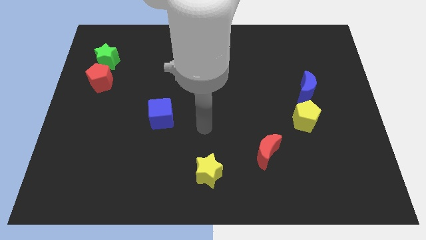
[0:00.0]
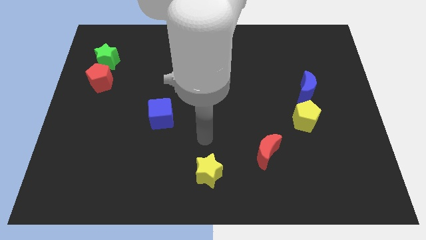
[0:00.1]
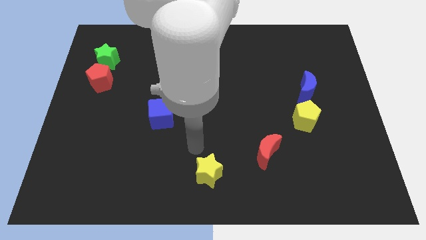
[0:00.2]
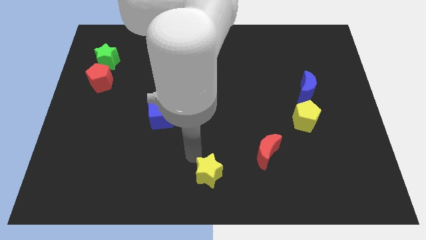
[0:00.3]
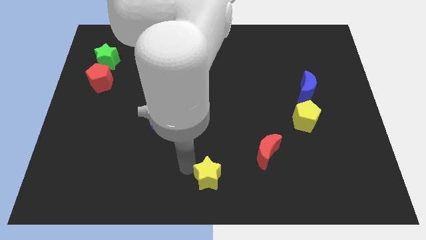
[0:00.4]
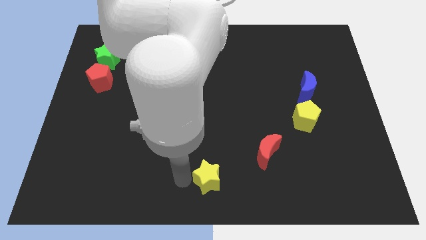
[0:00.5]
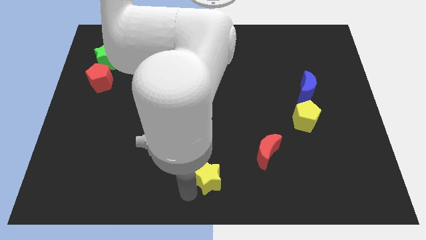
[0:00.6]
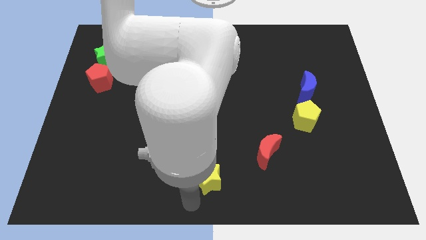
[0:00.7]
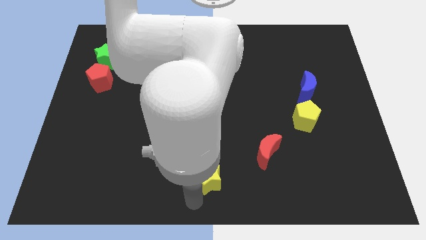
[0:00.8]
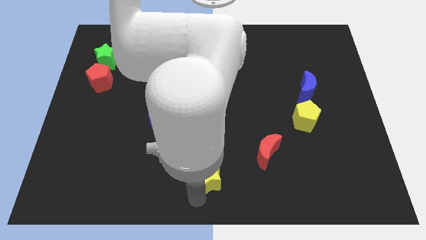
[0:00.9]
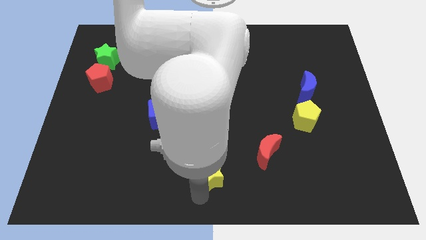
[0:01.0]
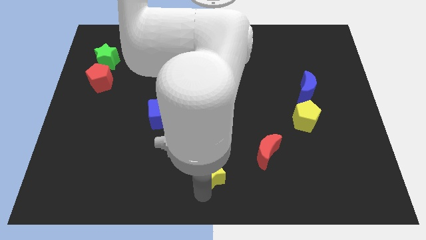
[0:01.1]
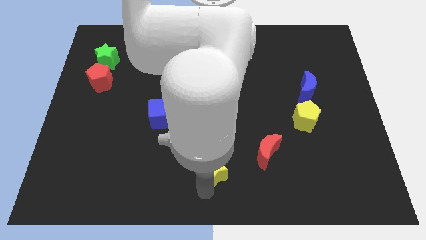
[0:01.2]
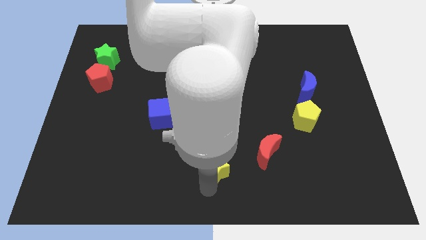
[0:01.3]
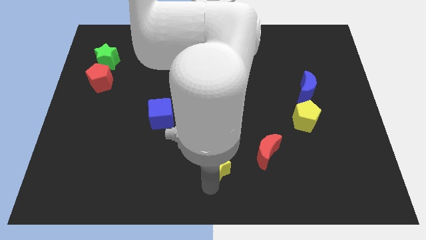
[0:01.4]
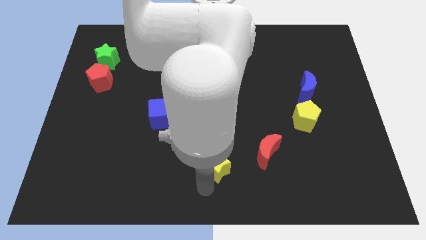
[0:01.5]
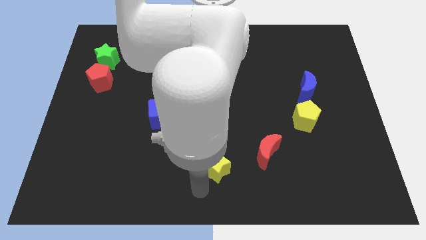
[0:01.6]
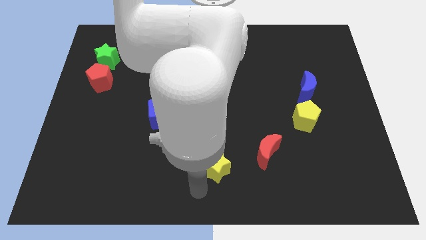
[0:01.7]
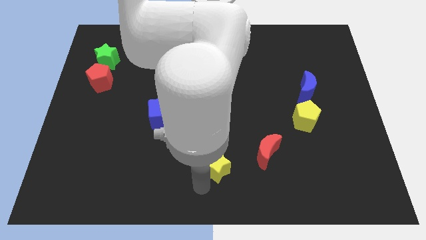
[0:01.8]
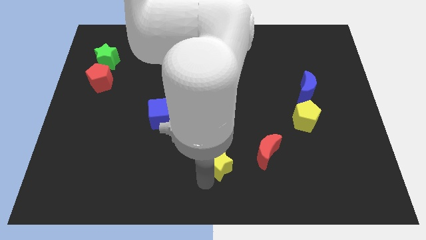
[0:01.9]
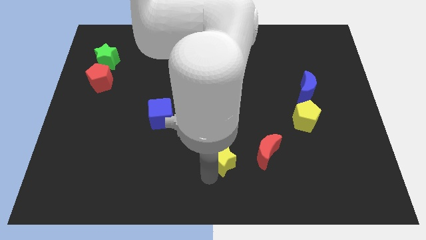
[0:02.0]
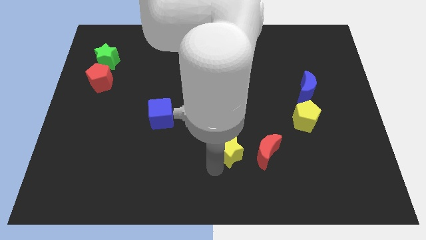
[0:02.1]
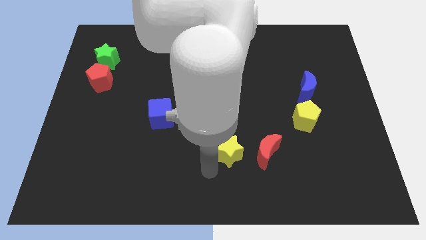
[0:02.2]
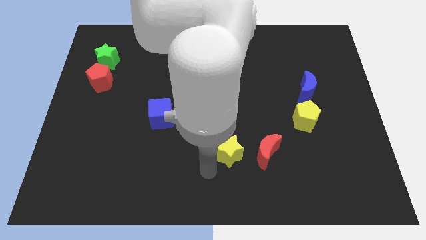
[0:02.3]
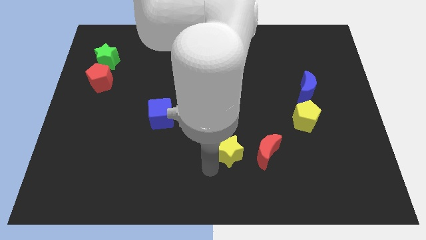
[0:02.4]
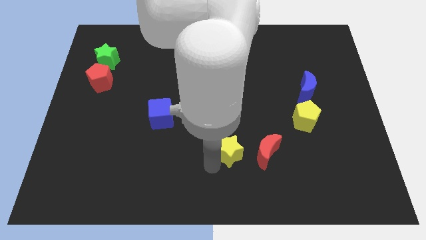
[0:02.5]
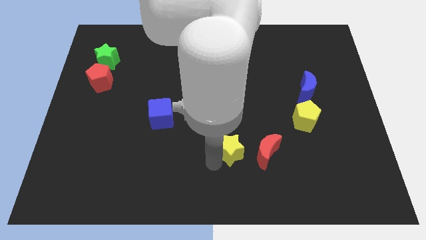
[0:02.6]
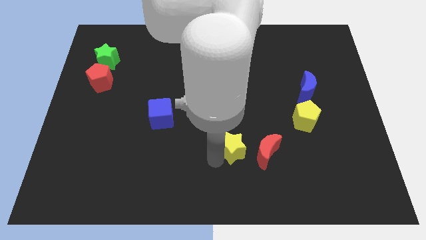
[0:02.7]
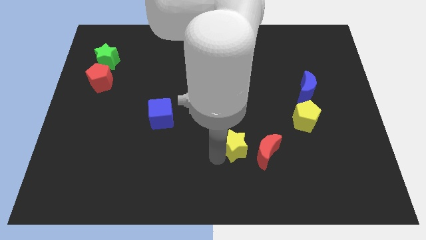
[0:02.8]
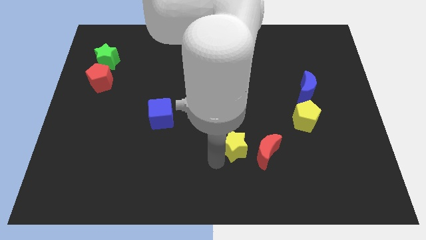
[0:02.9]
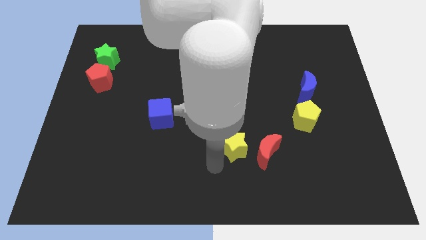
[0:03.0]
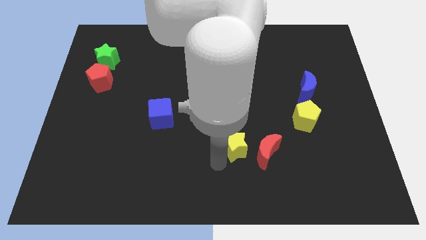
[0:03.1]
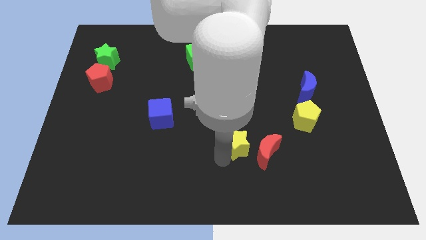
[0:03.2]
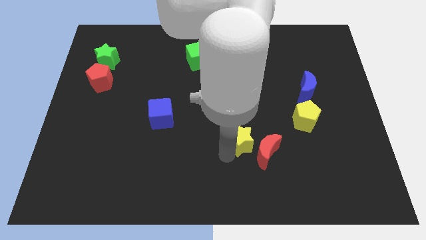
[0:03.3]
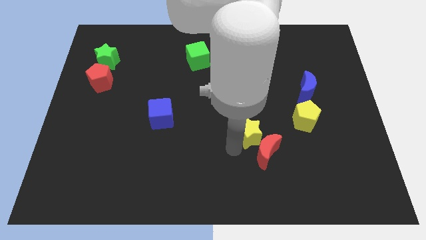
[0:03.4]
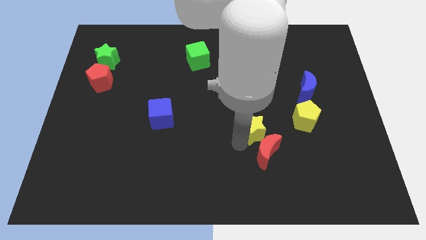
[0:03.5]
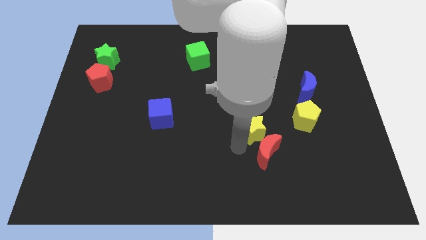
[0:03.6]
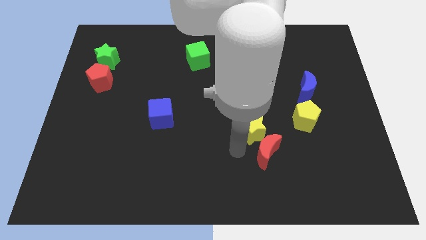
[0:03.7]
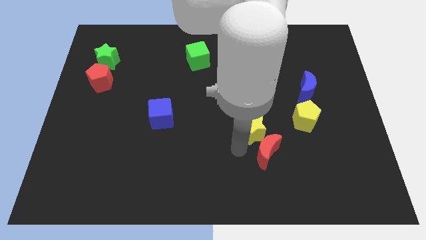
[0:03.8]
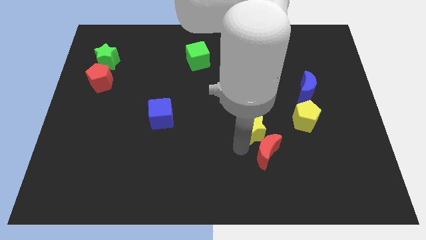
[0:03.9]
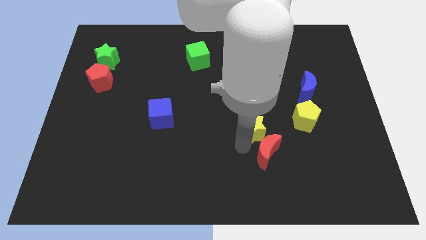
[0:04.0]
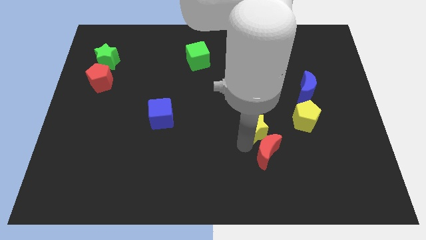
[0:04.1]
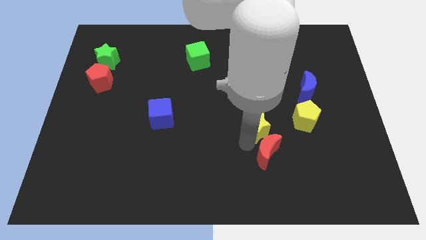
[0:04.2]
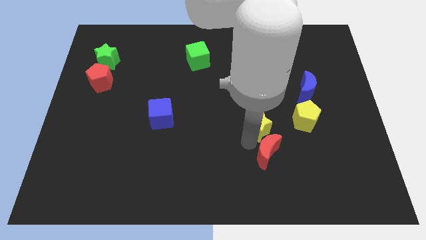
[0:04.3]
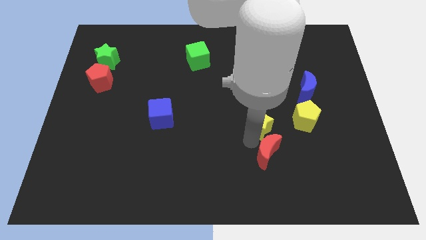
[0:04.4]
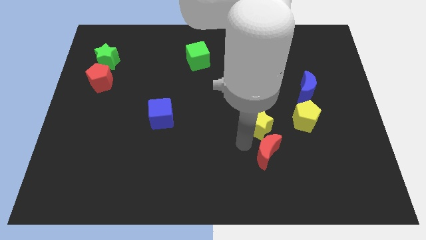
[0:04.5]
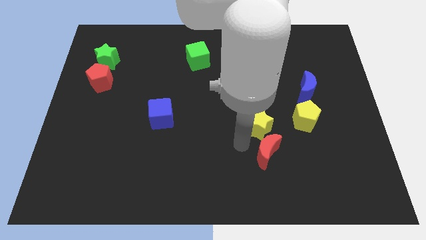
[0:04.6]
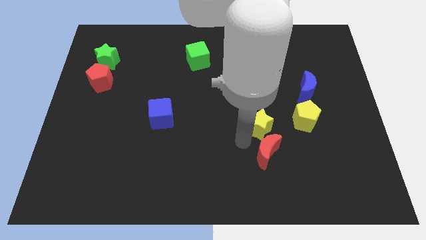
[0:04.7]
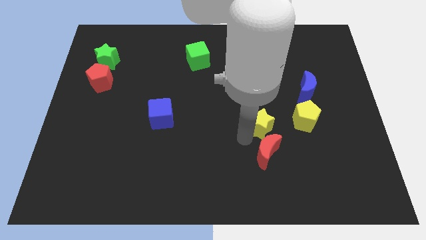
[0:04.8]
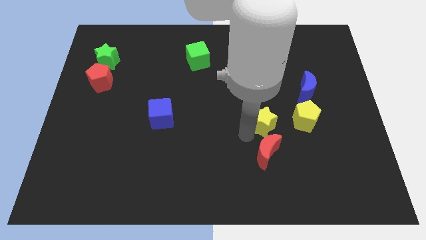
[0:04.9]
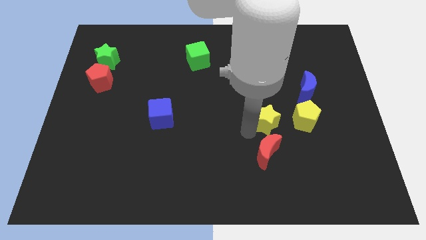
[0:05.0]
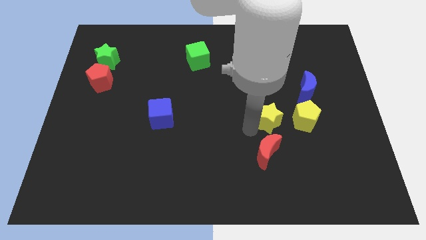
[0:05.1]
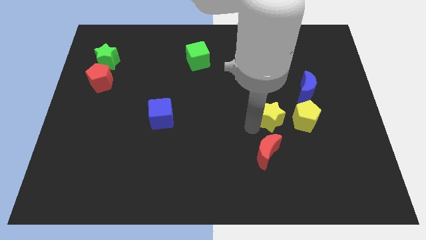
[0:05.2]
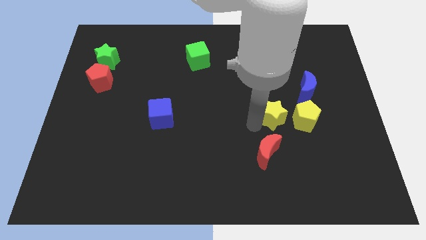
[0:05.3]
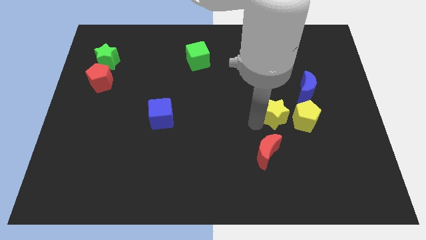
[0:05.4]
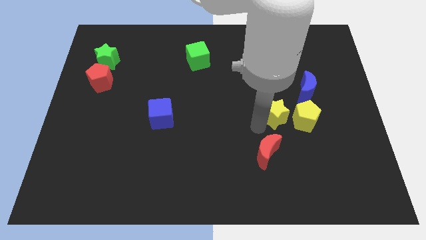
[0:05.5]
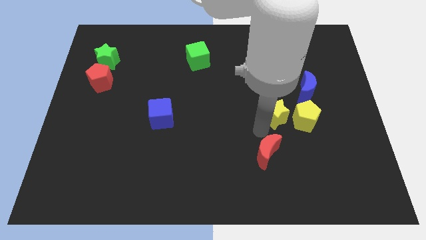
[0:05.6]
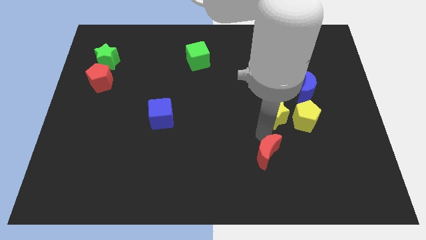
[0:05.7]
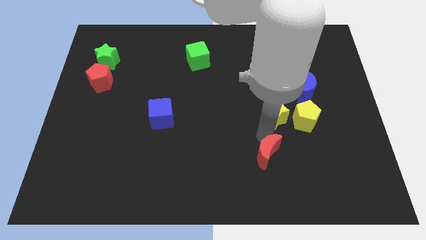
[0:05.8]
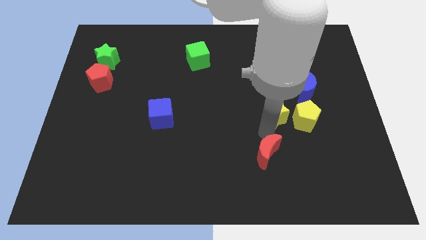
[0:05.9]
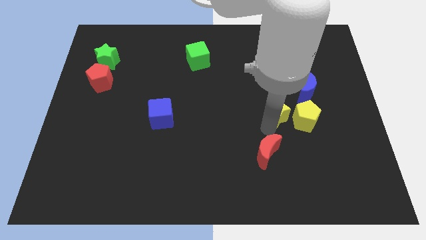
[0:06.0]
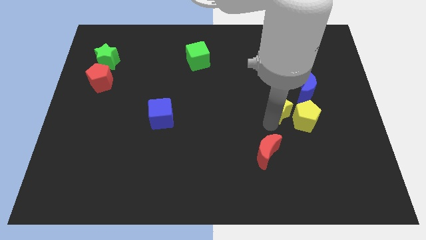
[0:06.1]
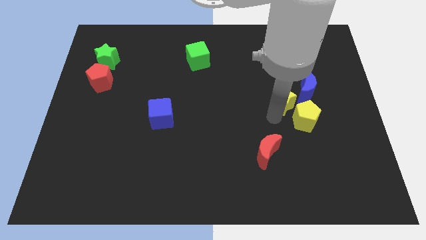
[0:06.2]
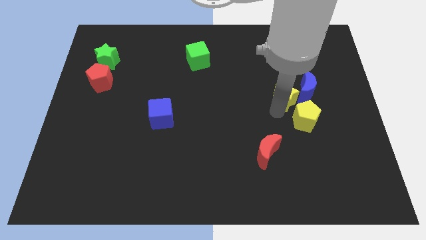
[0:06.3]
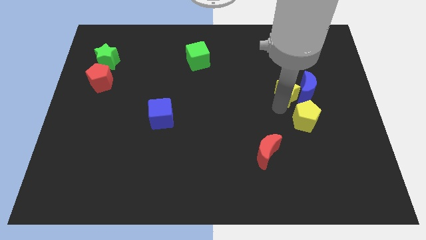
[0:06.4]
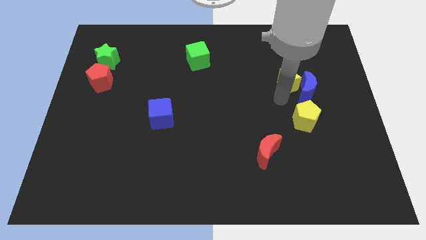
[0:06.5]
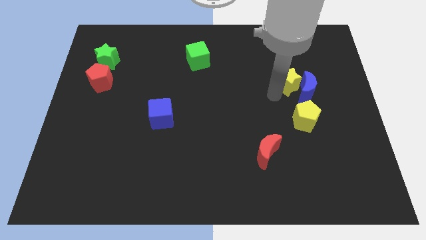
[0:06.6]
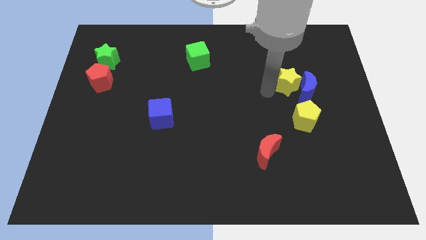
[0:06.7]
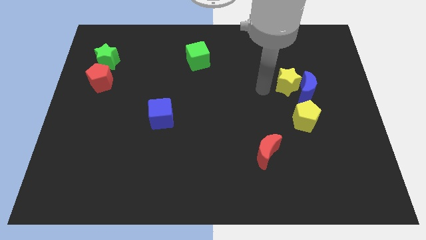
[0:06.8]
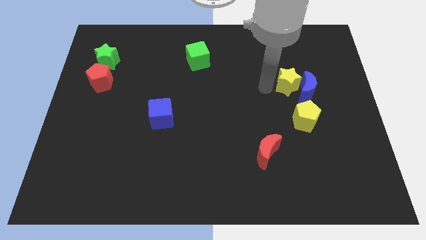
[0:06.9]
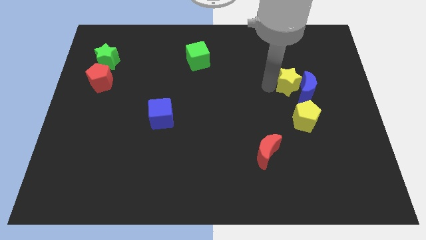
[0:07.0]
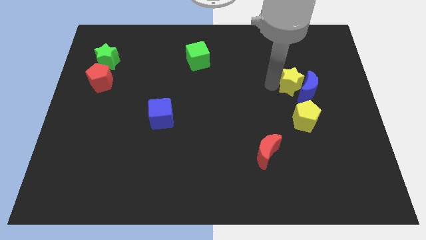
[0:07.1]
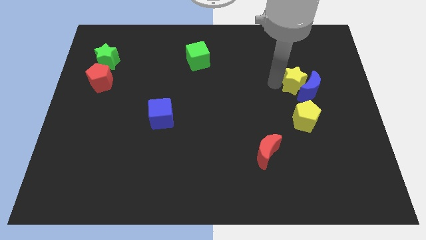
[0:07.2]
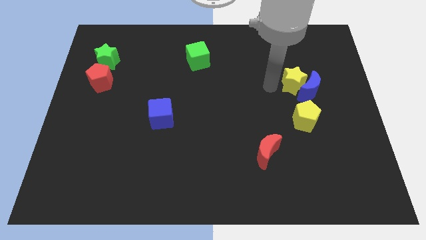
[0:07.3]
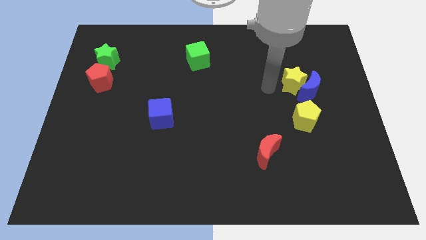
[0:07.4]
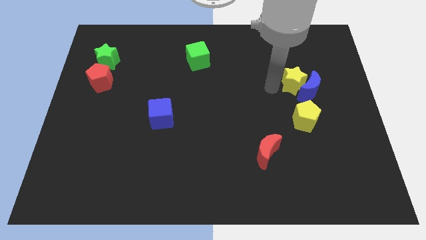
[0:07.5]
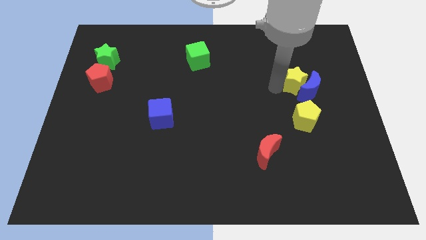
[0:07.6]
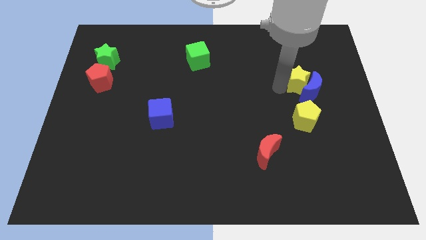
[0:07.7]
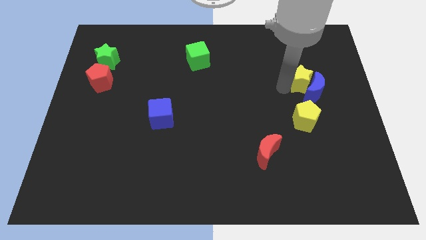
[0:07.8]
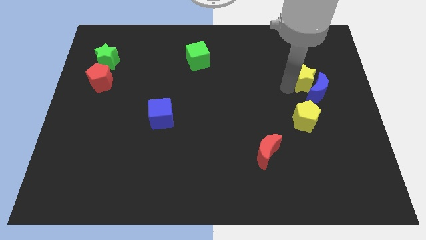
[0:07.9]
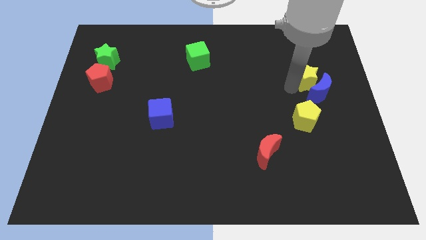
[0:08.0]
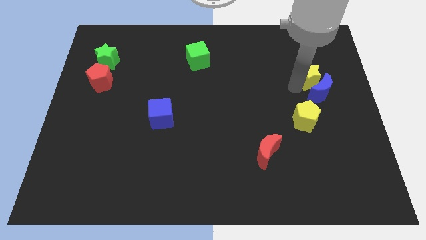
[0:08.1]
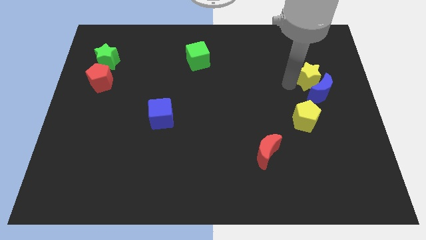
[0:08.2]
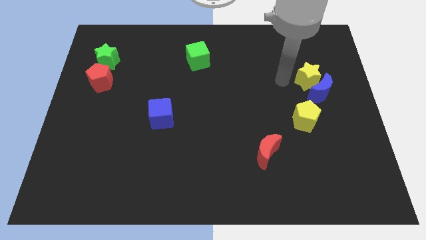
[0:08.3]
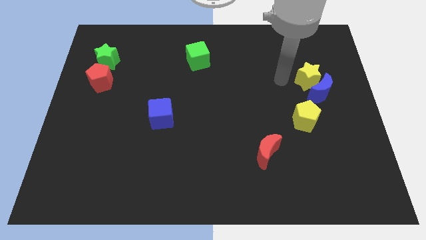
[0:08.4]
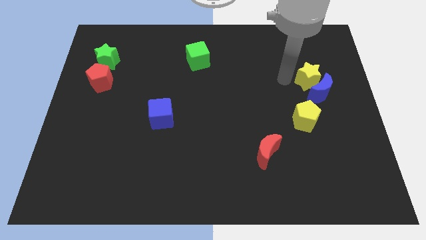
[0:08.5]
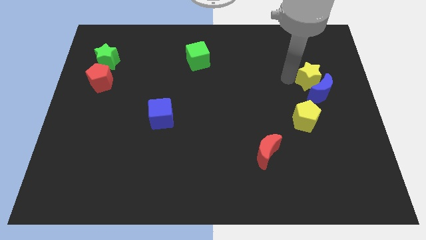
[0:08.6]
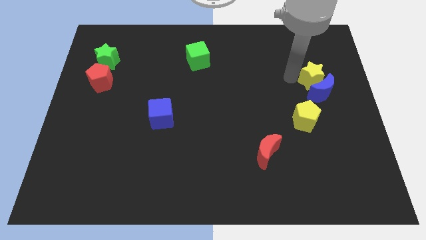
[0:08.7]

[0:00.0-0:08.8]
push the yellow star to the top right side of the blue moon
